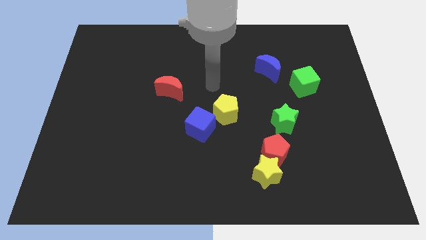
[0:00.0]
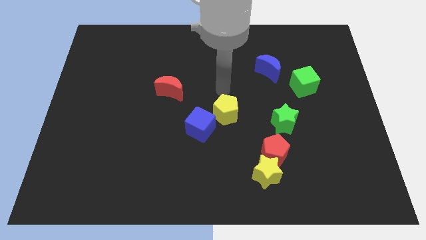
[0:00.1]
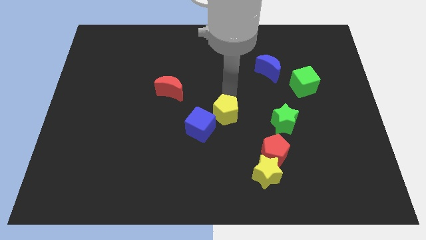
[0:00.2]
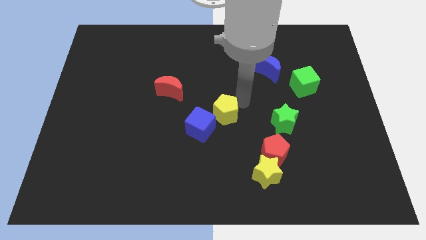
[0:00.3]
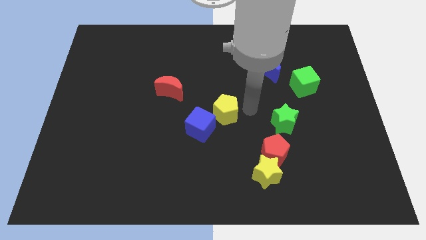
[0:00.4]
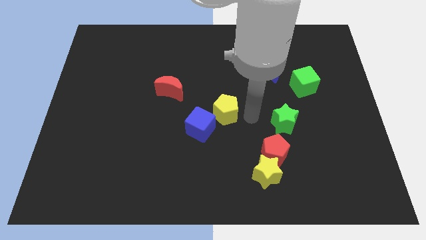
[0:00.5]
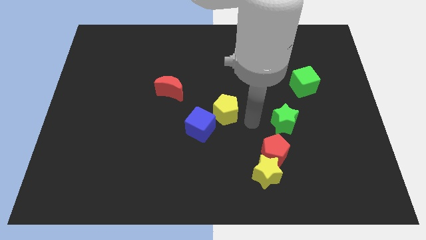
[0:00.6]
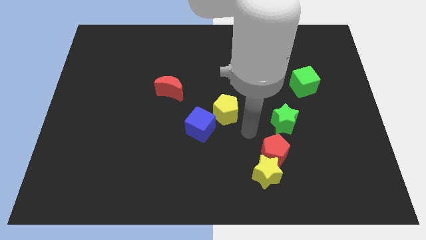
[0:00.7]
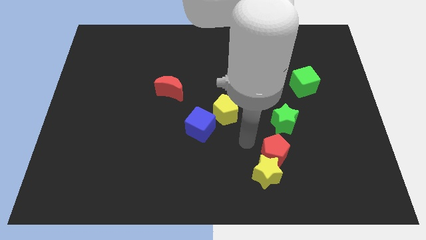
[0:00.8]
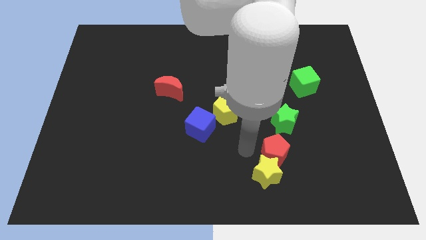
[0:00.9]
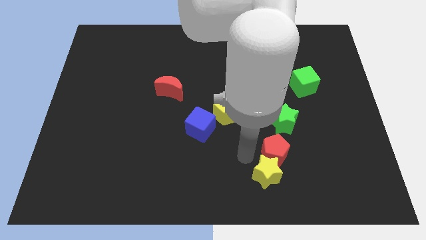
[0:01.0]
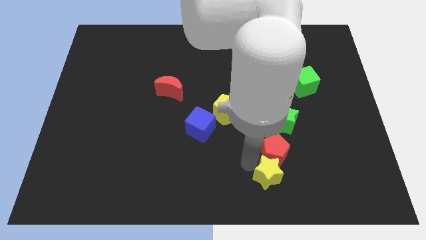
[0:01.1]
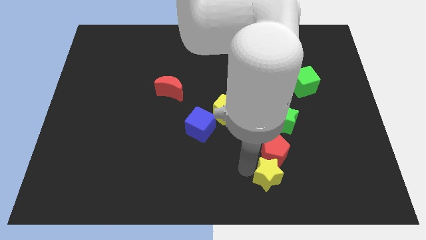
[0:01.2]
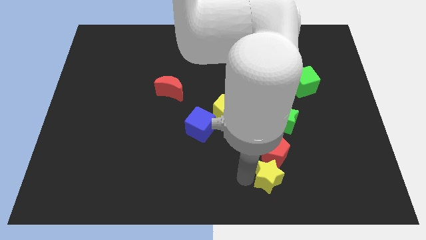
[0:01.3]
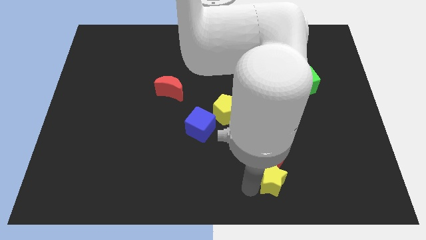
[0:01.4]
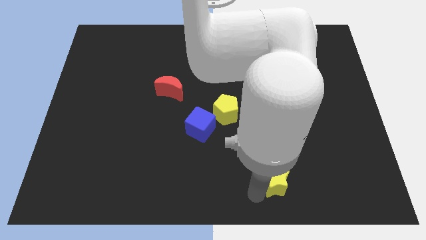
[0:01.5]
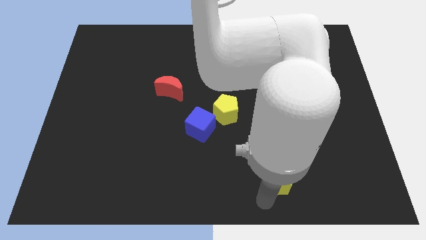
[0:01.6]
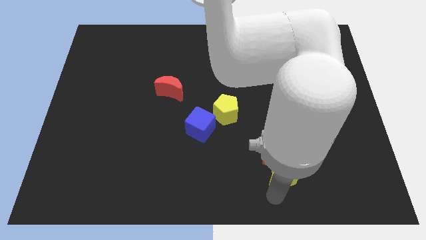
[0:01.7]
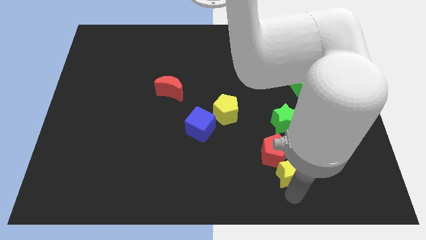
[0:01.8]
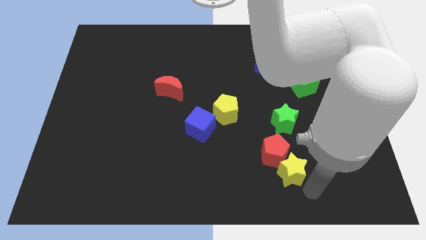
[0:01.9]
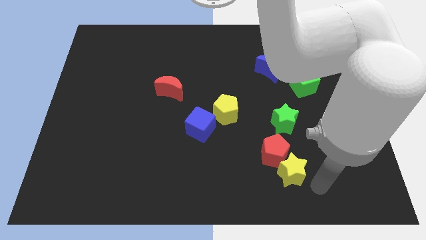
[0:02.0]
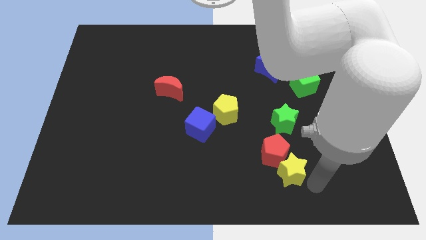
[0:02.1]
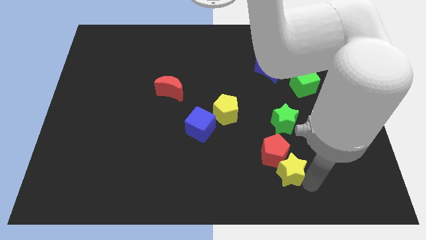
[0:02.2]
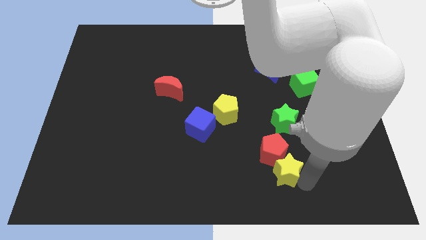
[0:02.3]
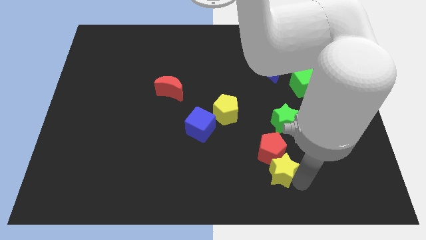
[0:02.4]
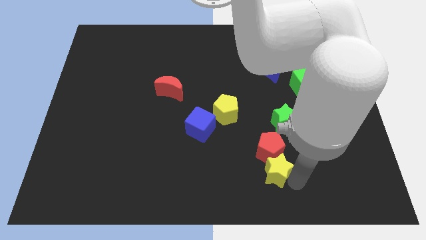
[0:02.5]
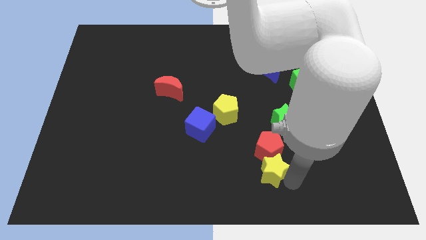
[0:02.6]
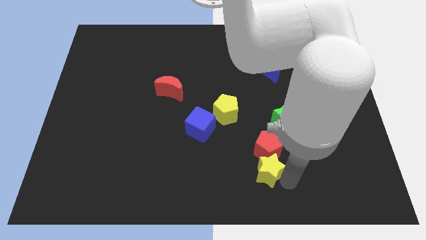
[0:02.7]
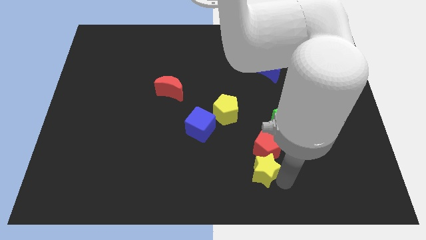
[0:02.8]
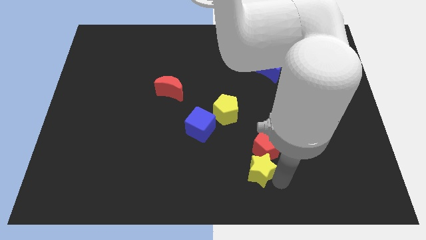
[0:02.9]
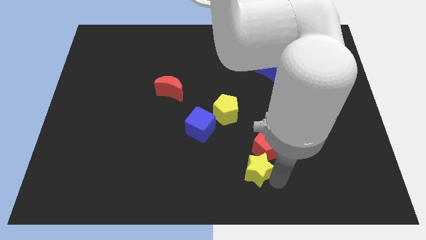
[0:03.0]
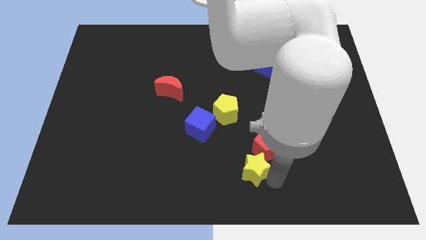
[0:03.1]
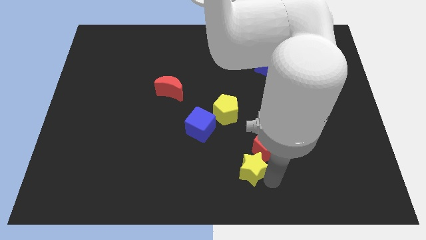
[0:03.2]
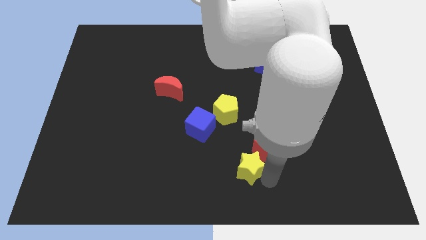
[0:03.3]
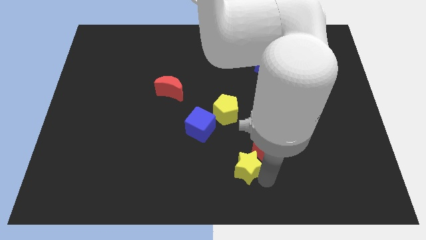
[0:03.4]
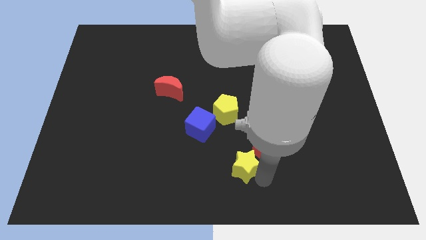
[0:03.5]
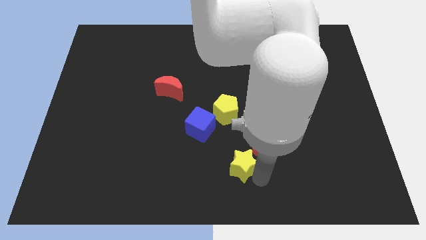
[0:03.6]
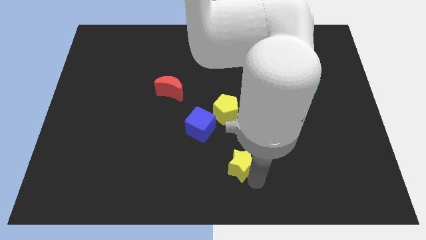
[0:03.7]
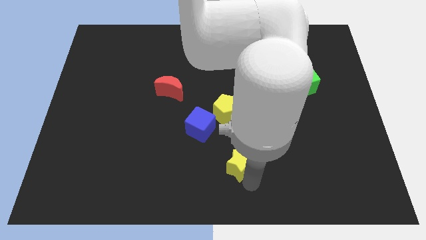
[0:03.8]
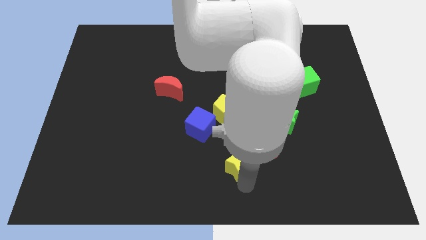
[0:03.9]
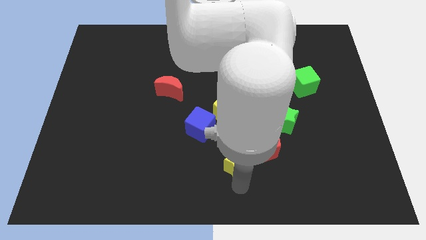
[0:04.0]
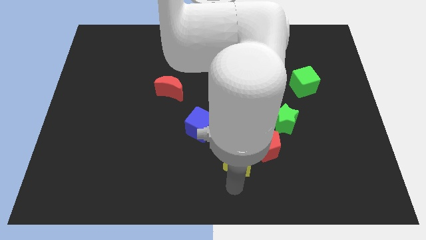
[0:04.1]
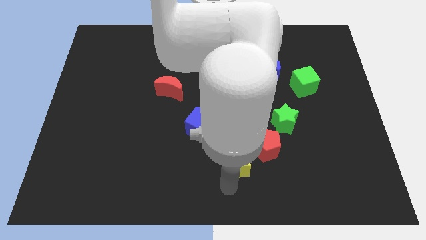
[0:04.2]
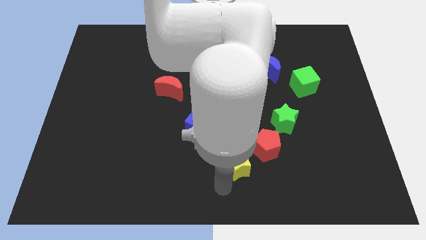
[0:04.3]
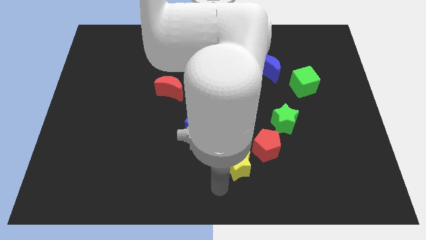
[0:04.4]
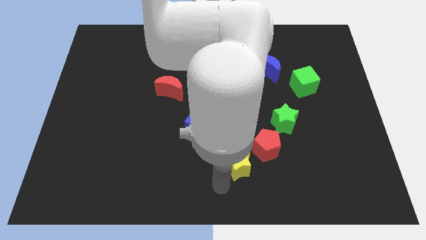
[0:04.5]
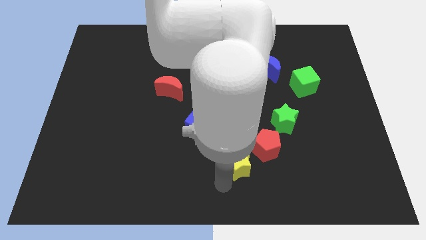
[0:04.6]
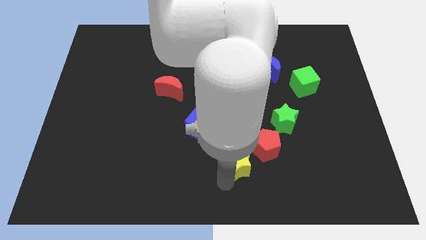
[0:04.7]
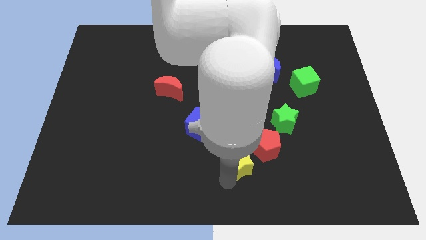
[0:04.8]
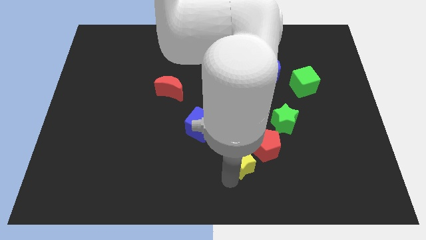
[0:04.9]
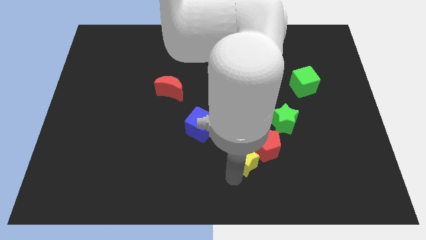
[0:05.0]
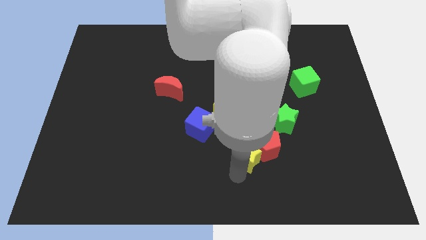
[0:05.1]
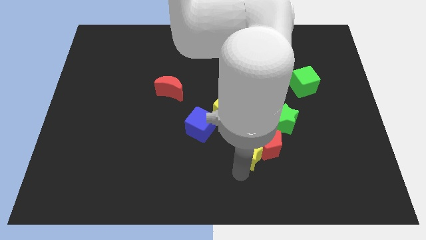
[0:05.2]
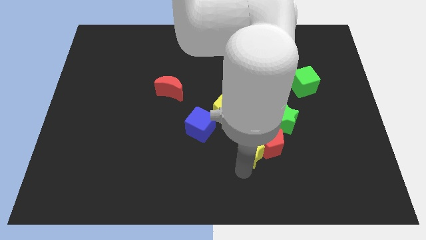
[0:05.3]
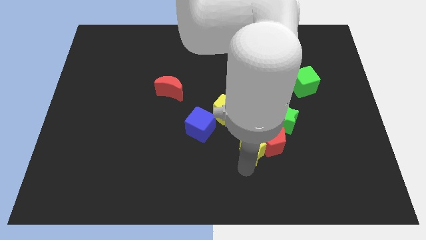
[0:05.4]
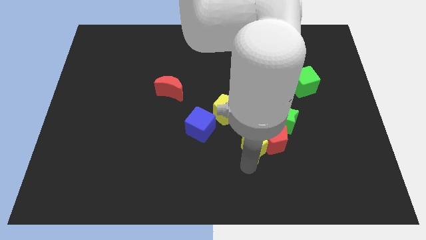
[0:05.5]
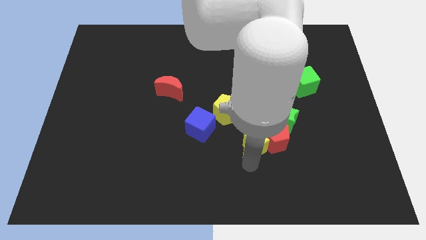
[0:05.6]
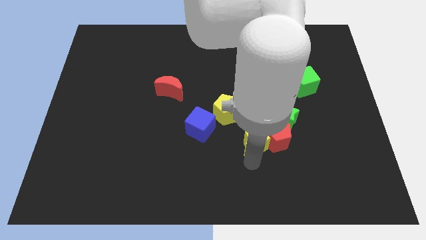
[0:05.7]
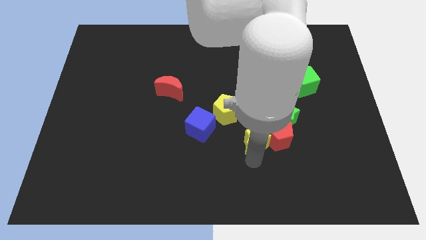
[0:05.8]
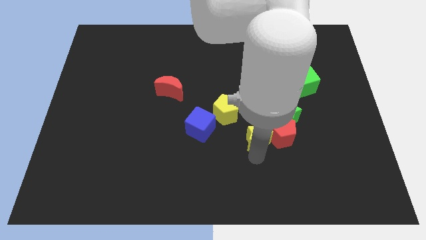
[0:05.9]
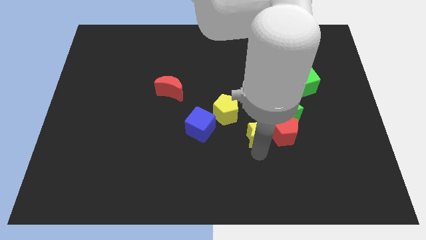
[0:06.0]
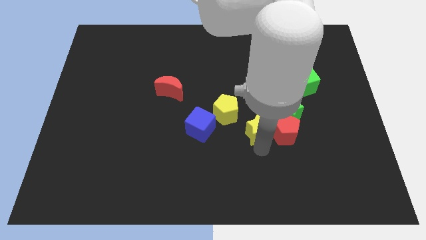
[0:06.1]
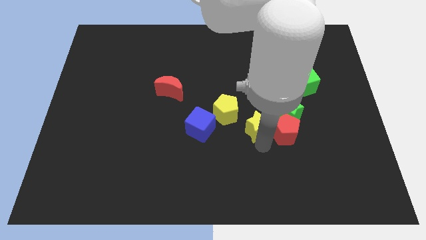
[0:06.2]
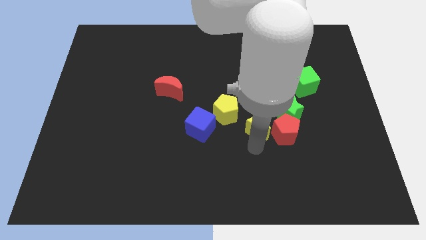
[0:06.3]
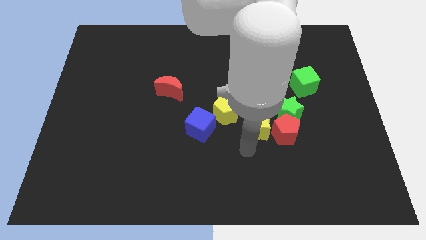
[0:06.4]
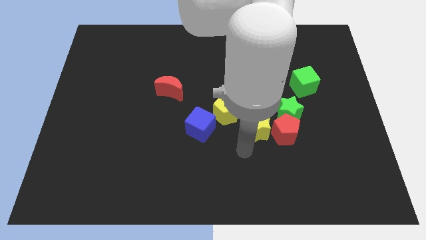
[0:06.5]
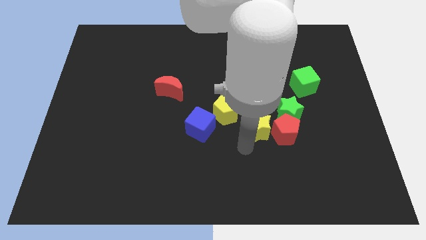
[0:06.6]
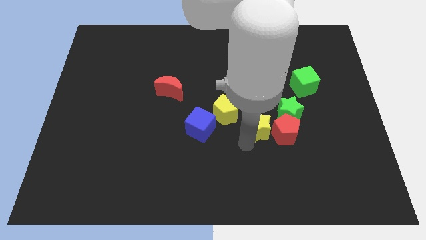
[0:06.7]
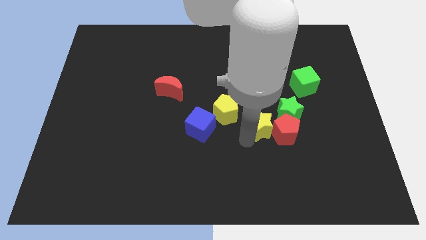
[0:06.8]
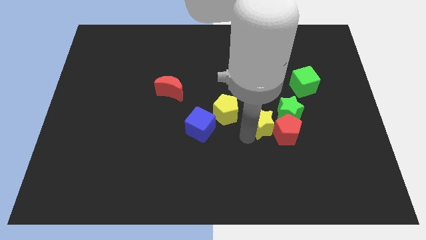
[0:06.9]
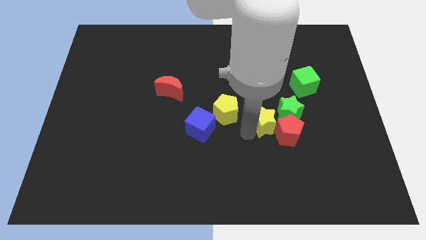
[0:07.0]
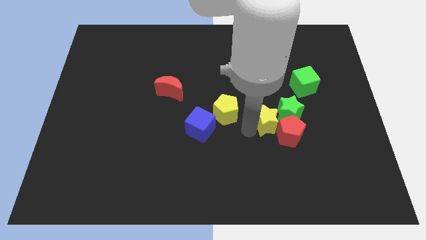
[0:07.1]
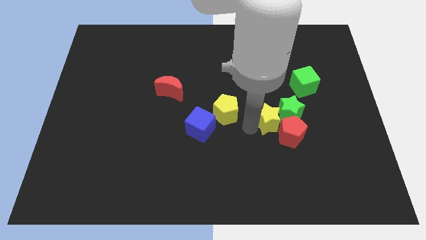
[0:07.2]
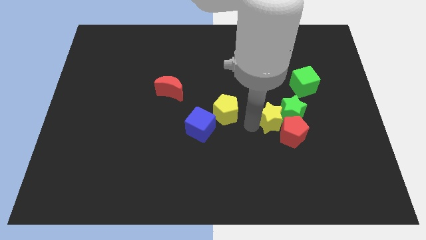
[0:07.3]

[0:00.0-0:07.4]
put the yellow star to the bottom of the blue moon
